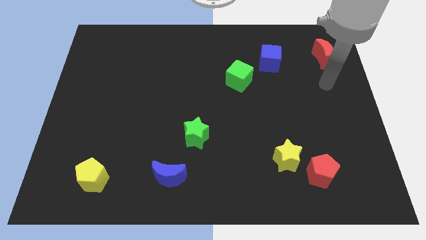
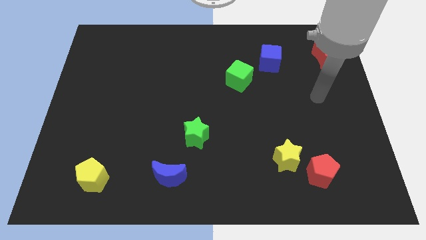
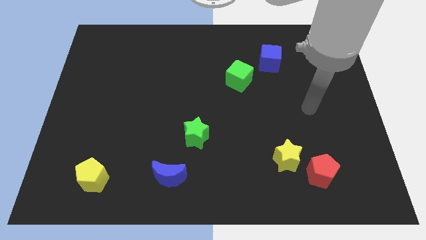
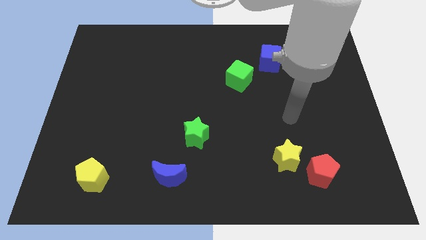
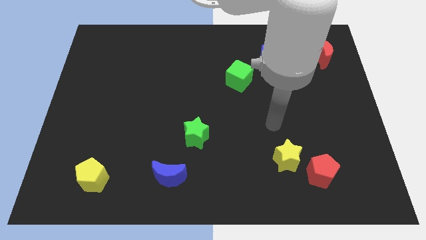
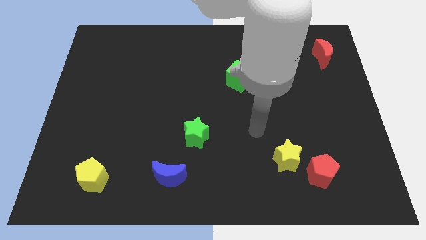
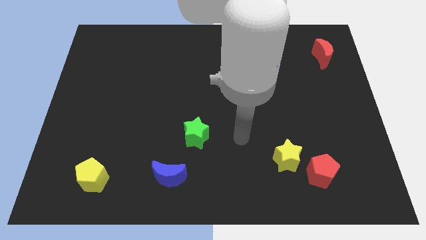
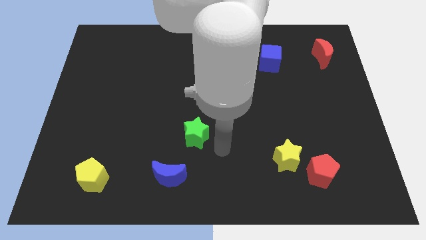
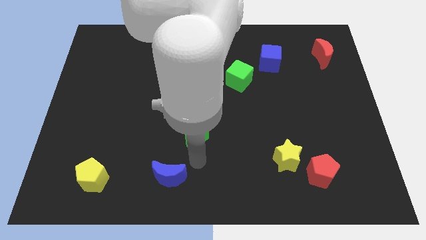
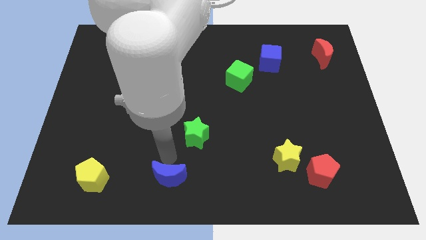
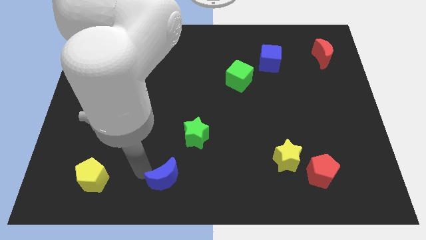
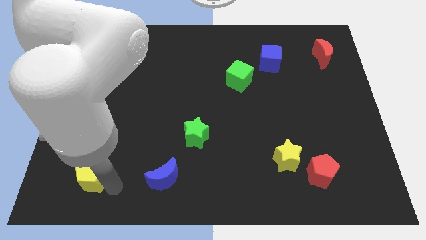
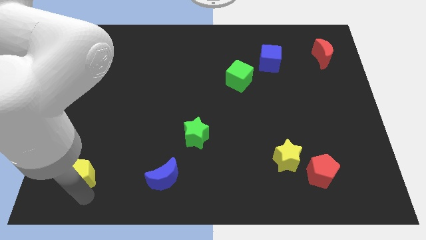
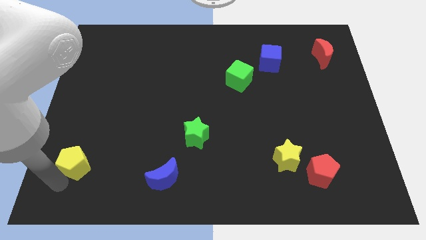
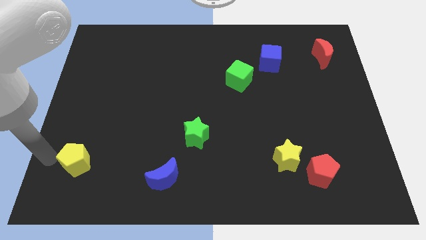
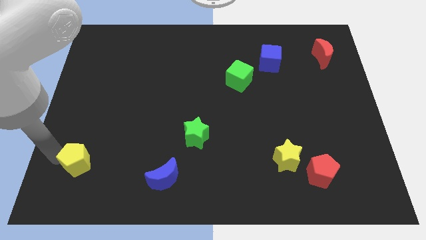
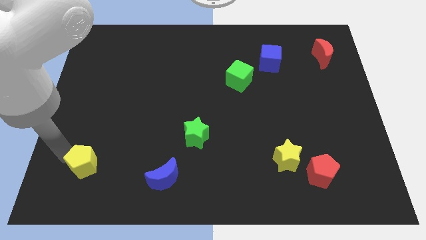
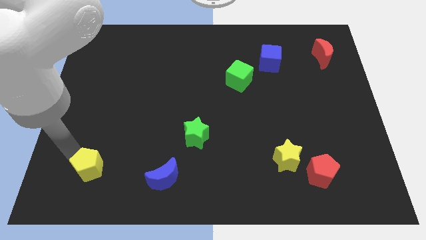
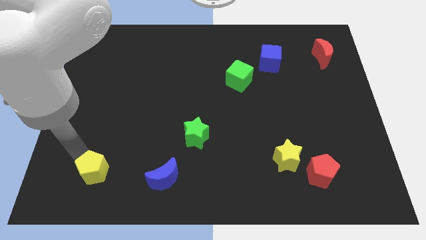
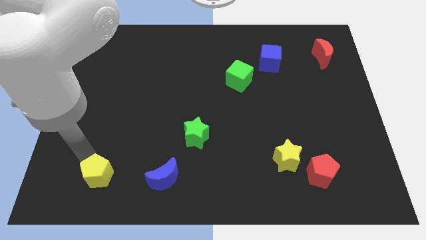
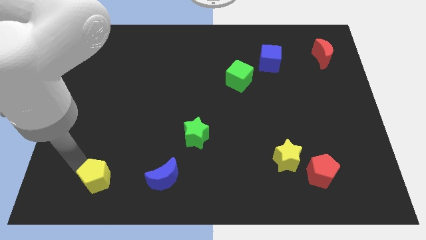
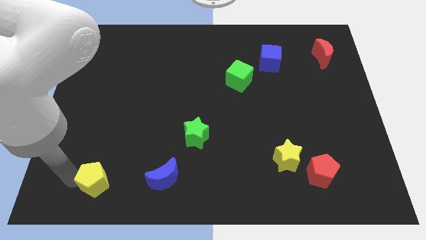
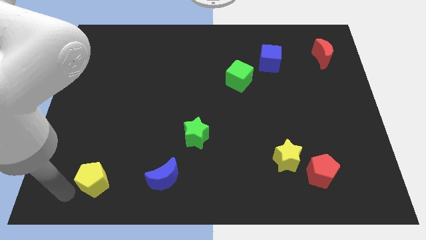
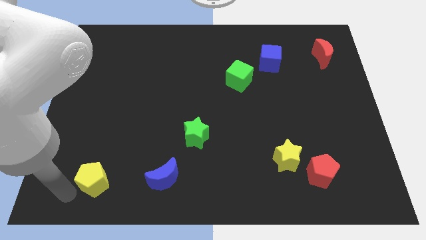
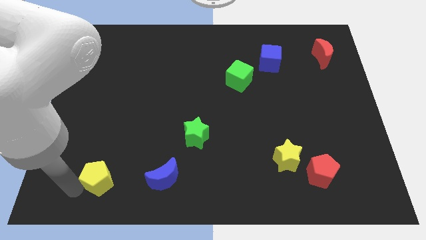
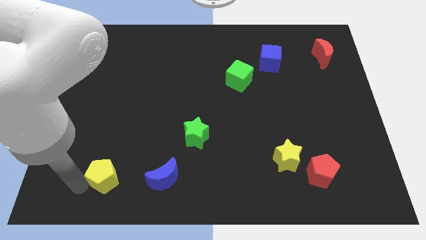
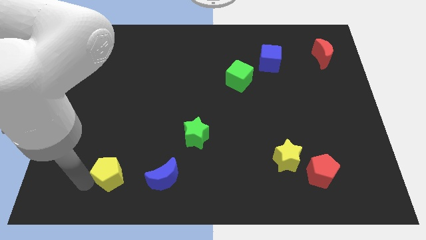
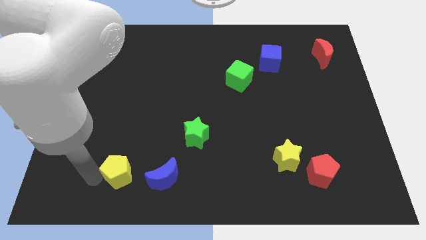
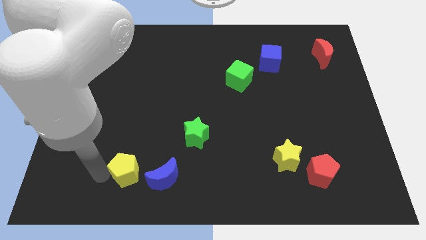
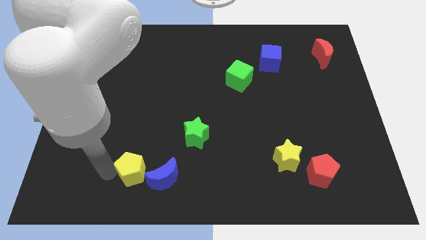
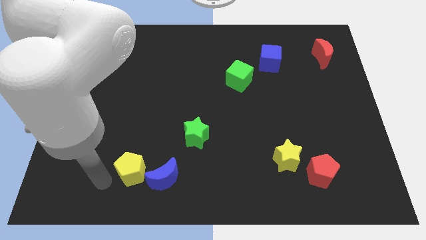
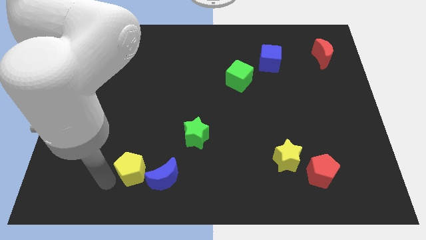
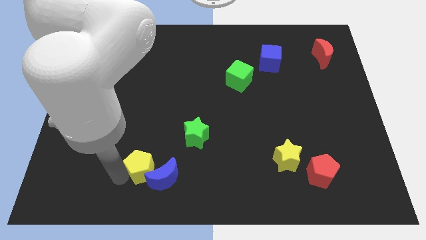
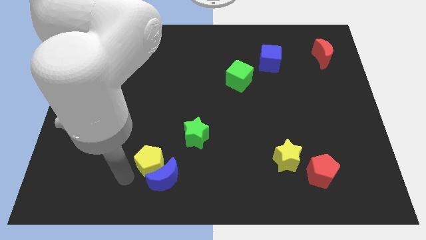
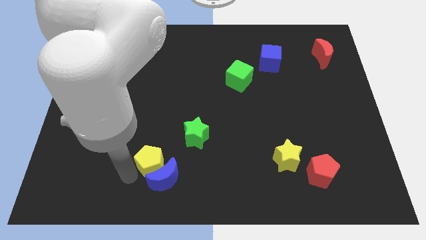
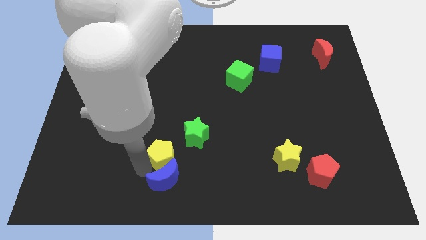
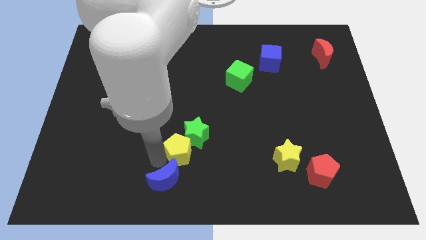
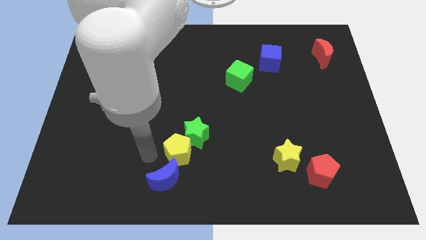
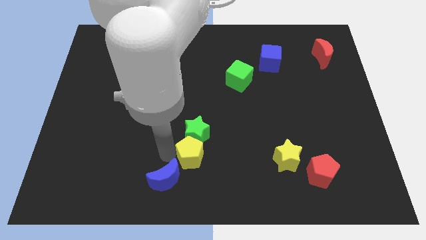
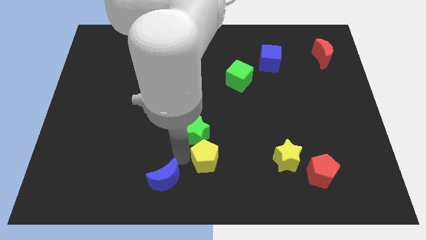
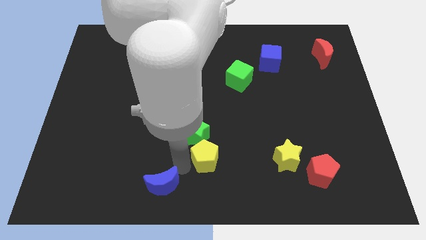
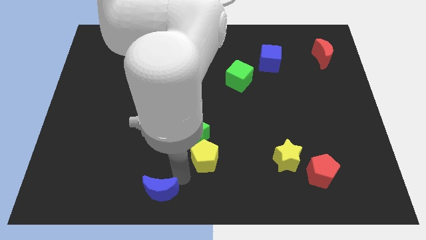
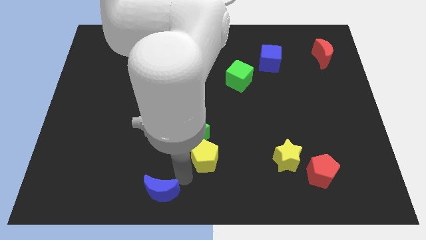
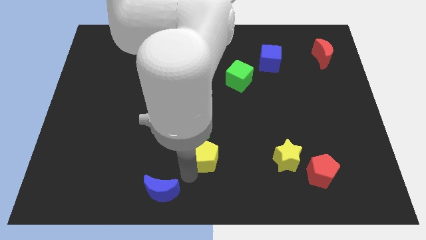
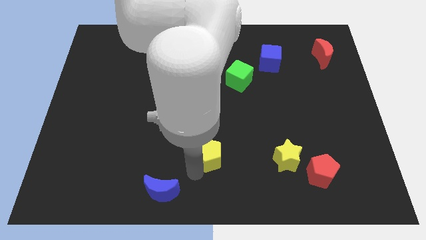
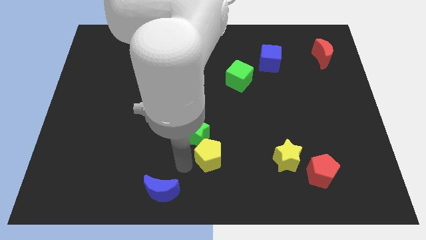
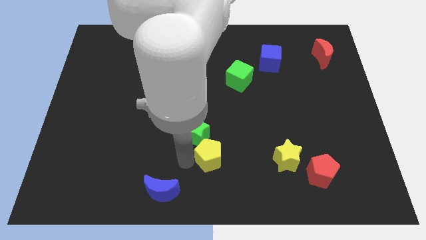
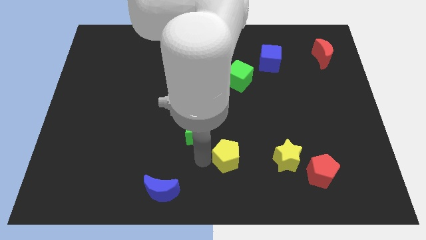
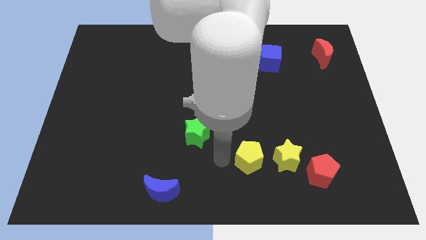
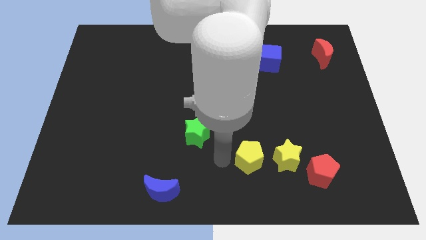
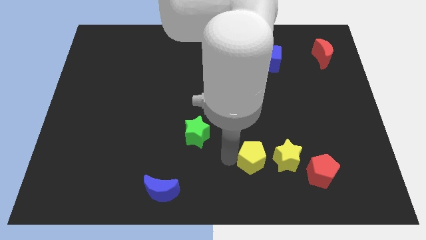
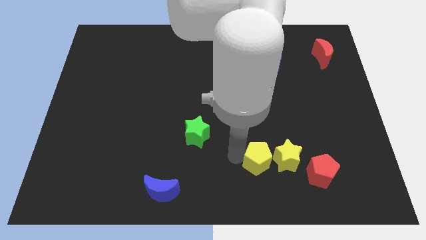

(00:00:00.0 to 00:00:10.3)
push the yellow pentagon to the yellow star

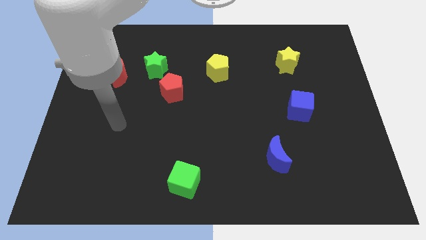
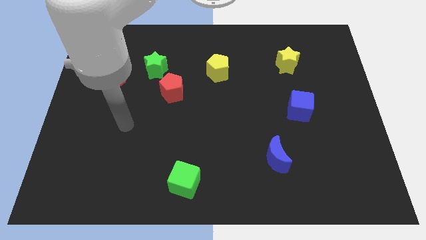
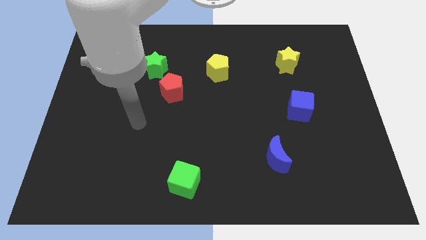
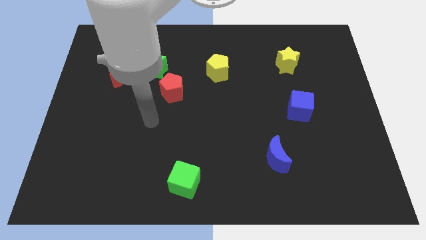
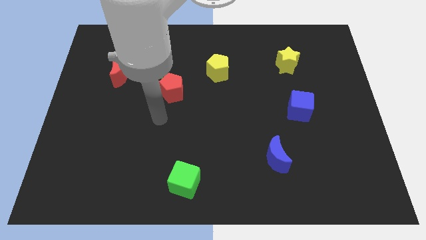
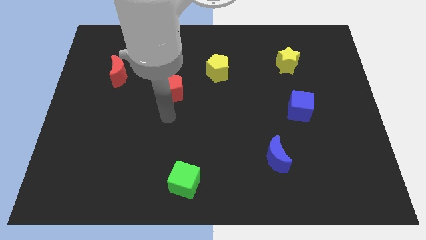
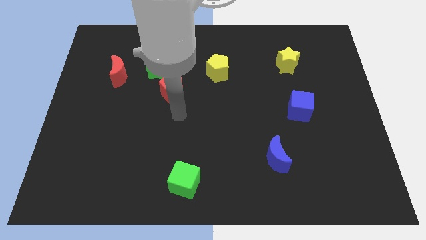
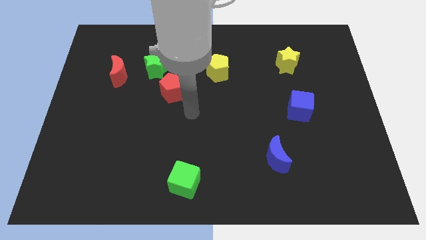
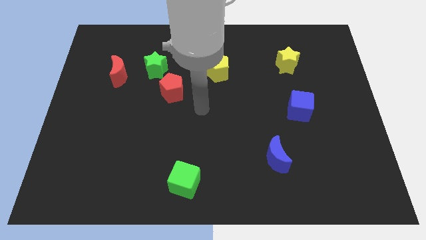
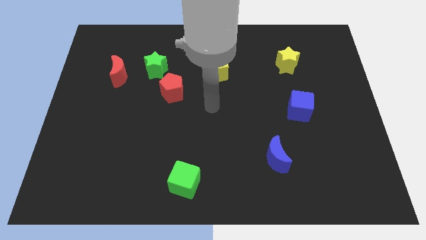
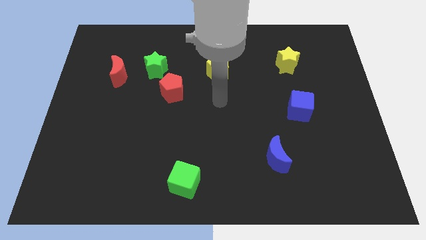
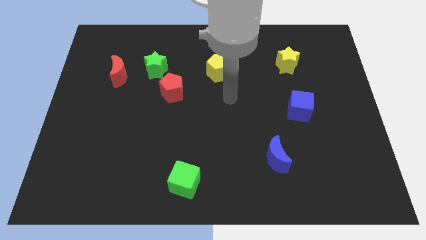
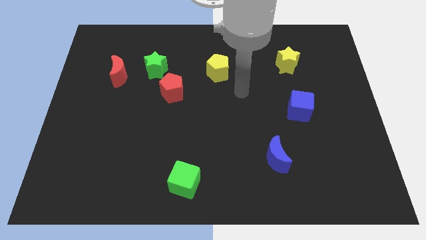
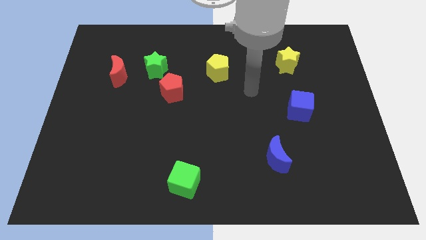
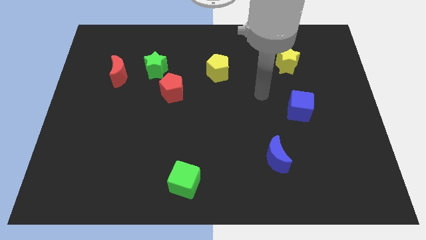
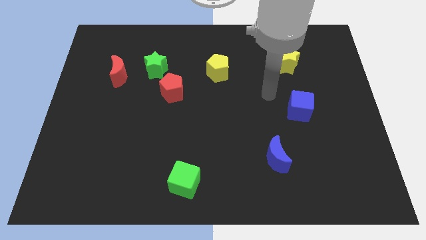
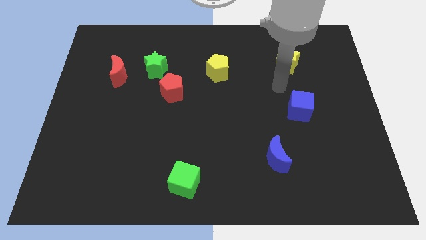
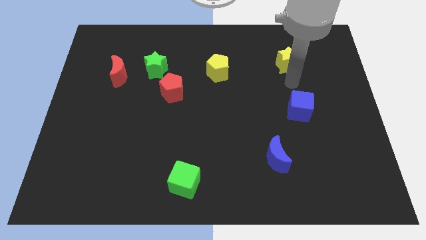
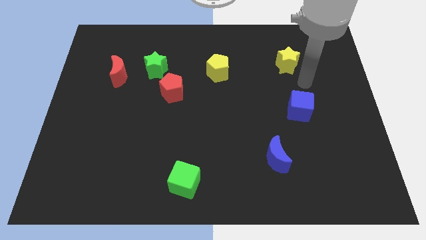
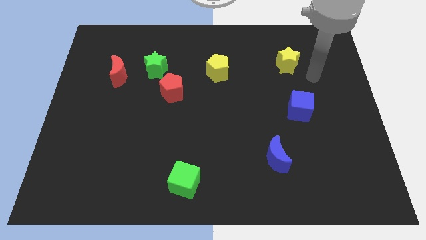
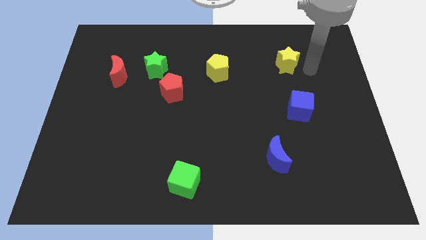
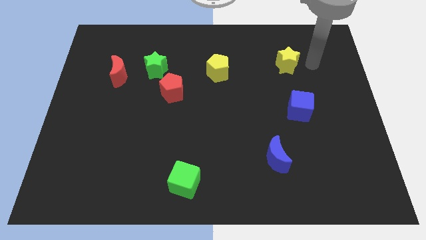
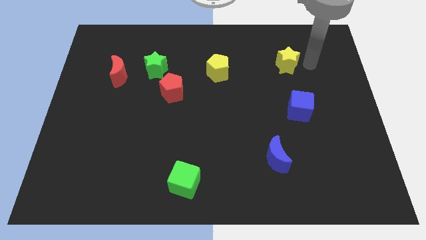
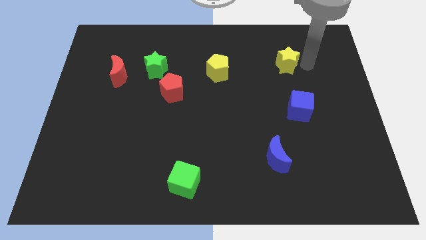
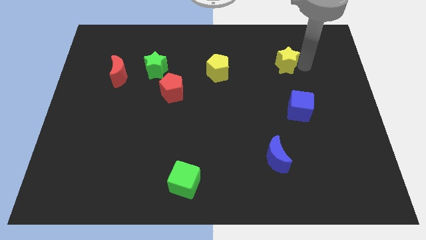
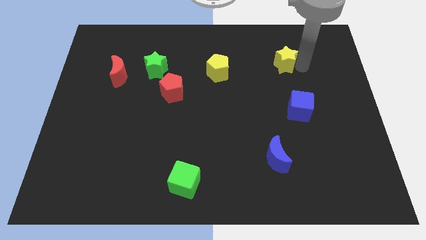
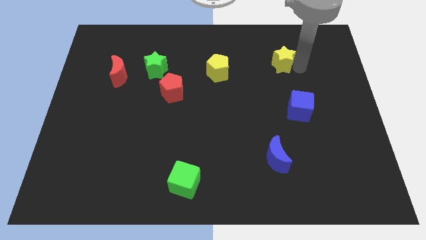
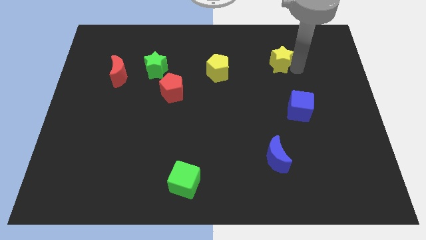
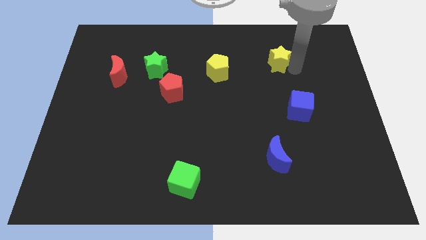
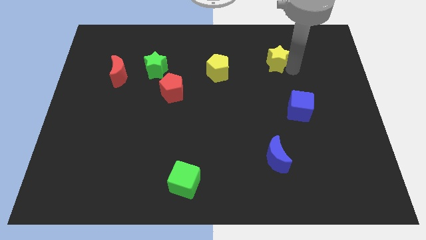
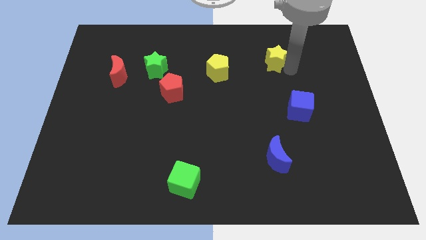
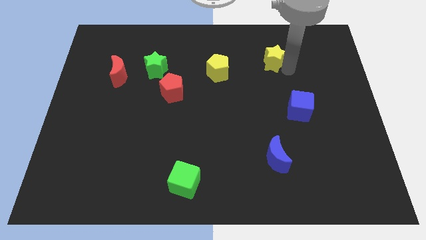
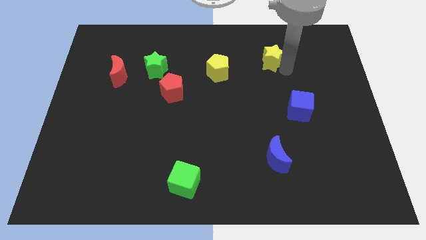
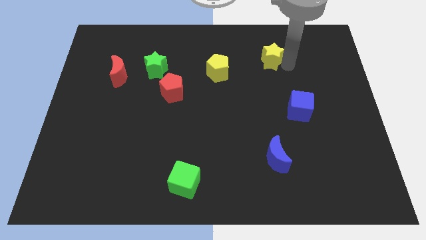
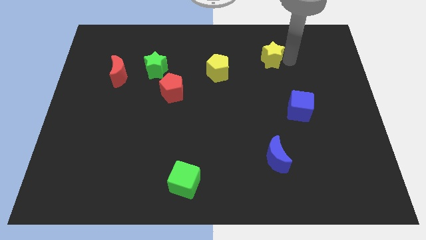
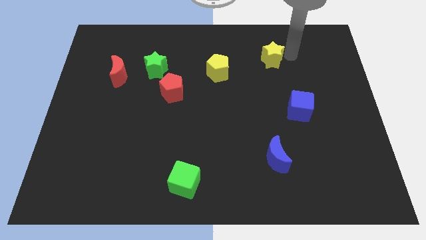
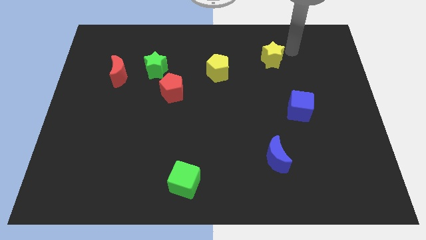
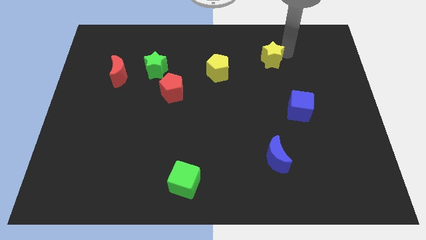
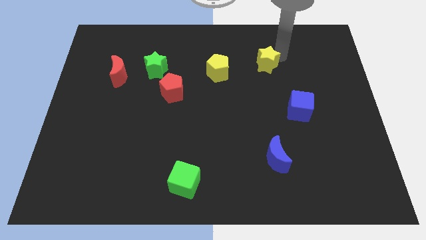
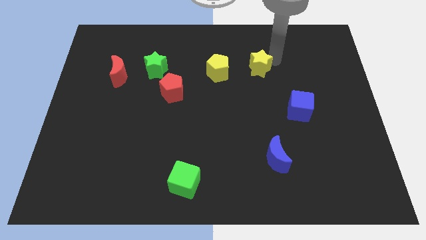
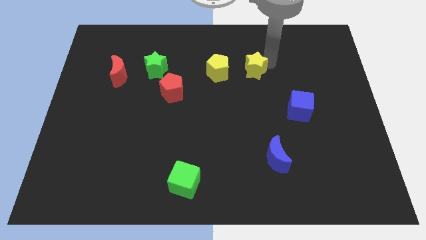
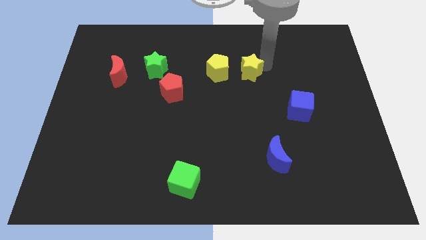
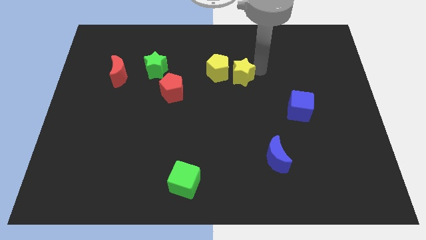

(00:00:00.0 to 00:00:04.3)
move the yellow star towards the yellow pentagon
